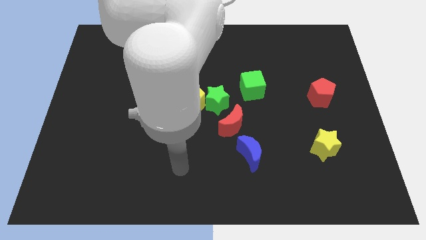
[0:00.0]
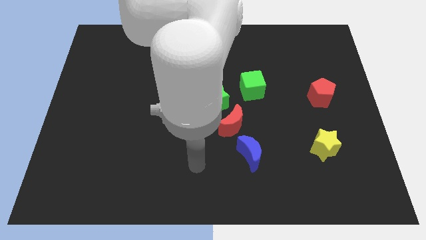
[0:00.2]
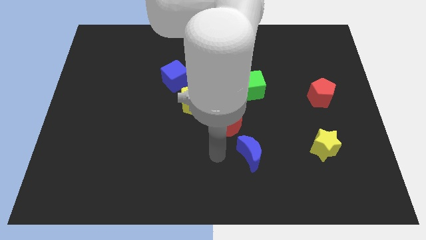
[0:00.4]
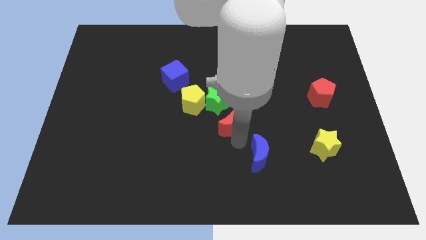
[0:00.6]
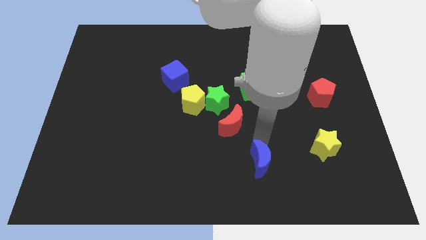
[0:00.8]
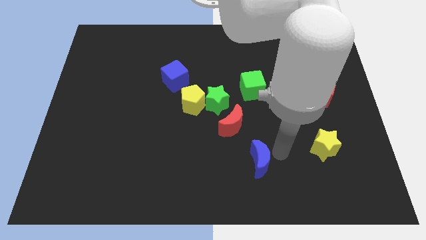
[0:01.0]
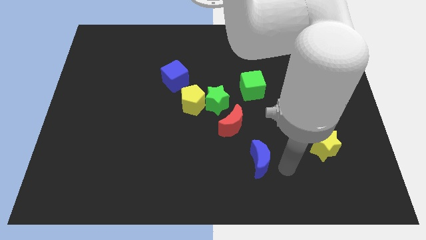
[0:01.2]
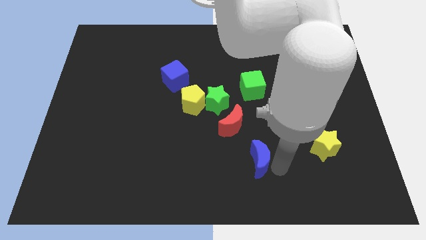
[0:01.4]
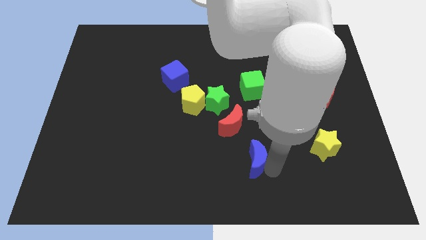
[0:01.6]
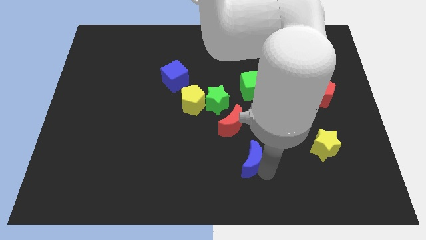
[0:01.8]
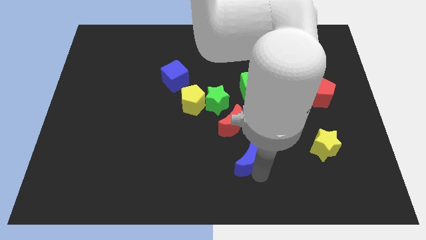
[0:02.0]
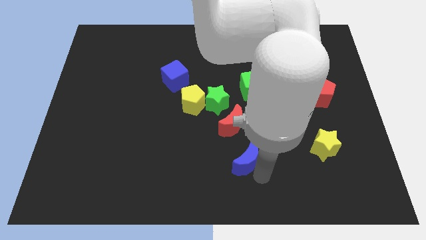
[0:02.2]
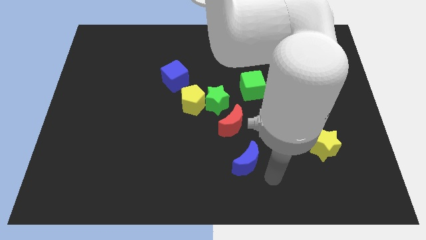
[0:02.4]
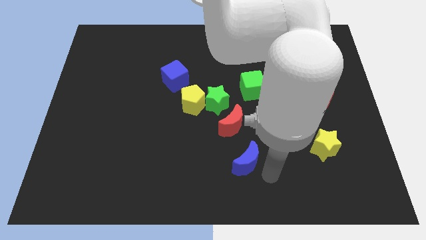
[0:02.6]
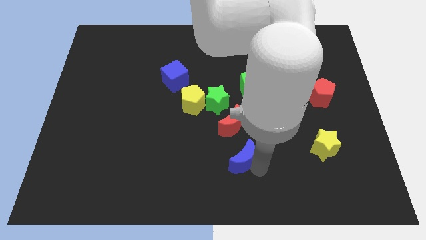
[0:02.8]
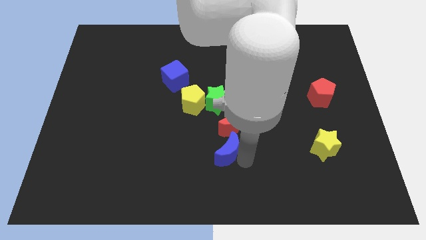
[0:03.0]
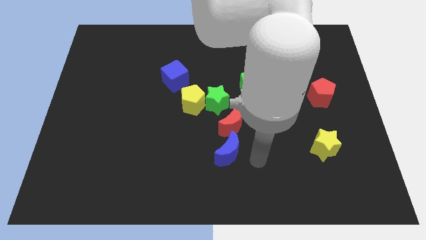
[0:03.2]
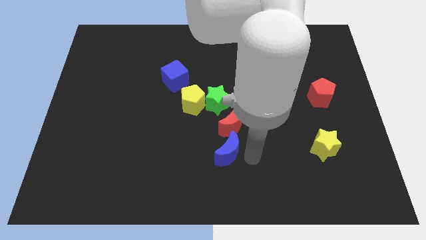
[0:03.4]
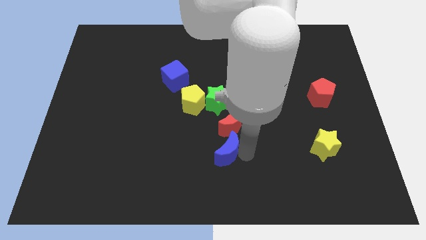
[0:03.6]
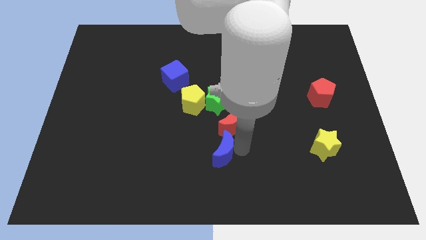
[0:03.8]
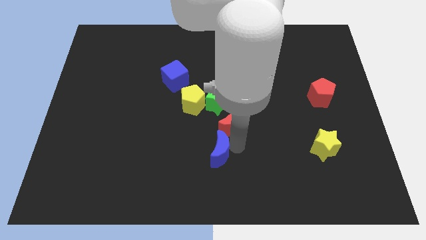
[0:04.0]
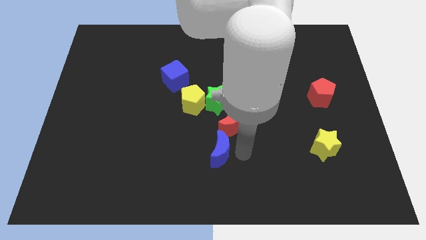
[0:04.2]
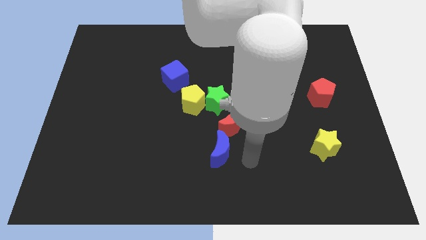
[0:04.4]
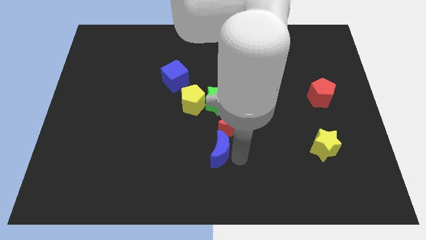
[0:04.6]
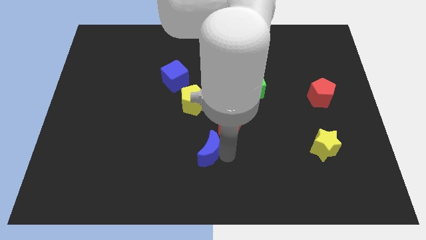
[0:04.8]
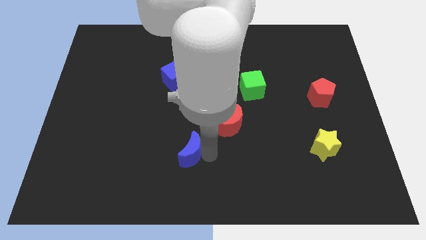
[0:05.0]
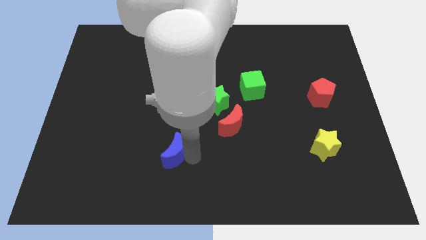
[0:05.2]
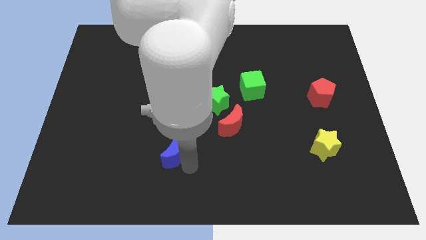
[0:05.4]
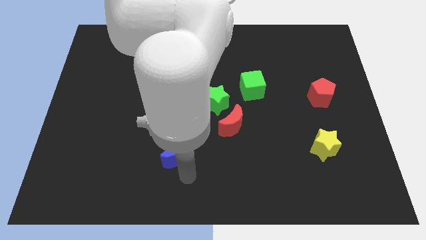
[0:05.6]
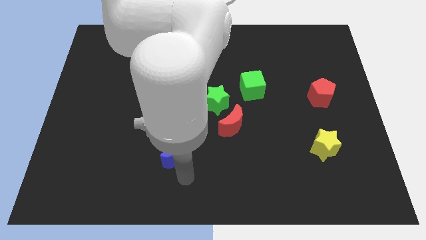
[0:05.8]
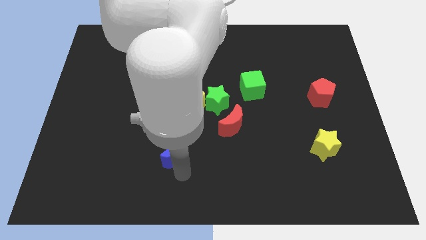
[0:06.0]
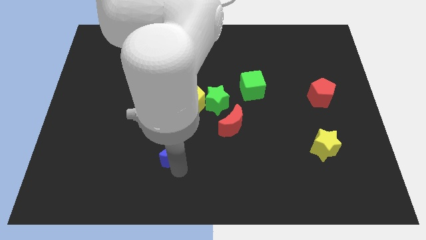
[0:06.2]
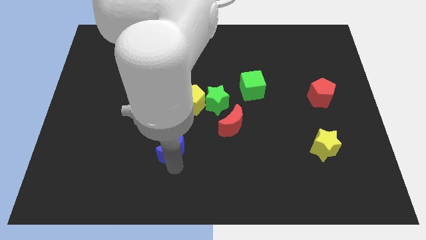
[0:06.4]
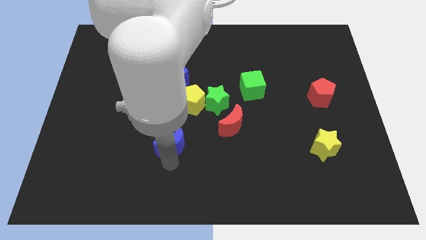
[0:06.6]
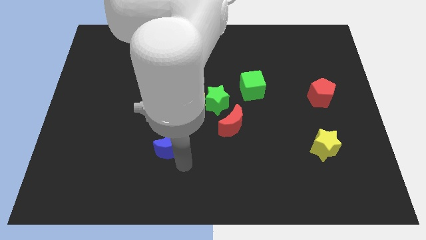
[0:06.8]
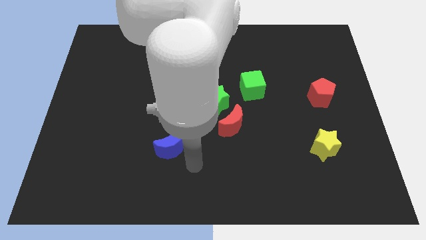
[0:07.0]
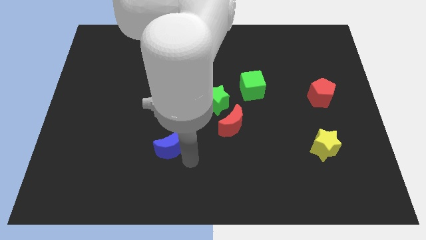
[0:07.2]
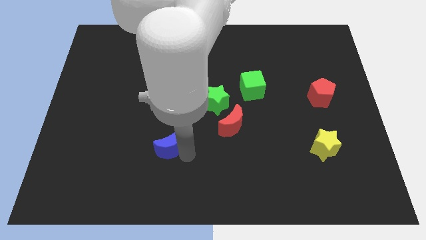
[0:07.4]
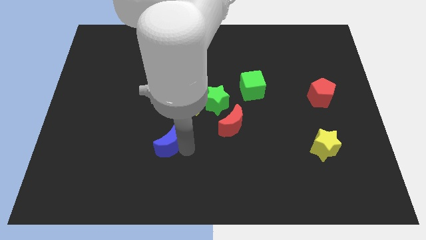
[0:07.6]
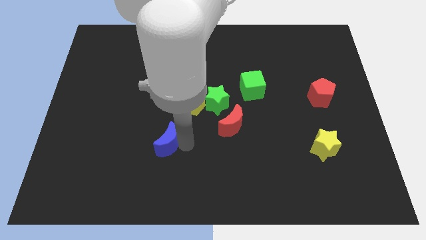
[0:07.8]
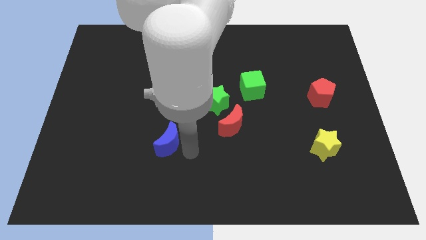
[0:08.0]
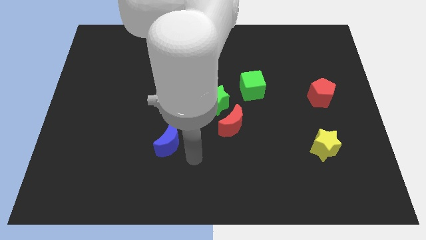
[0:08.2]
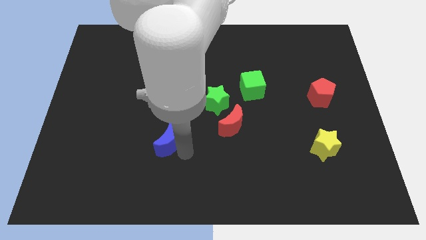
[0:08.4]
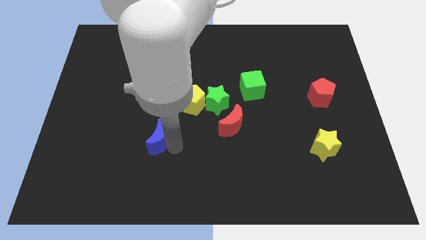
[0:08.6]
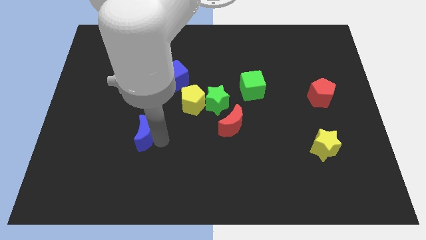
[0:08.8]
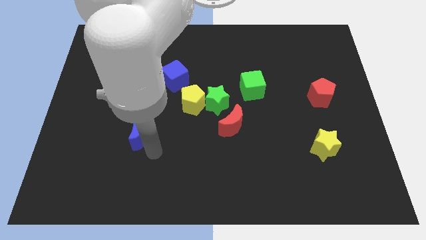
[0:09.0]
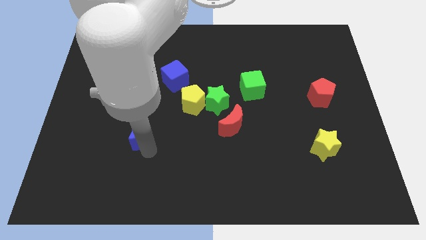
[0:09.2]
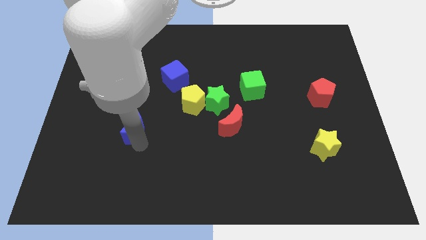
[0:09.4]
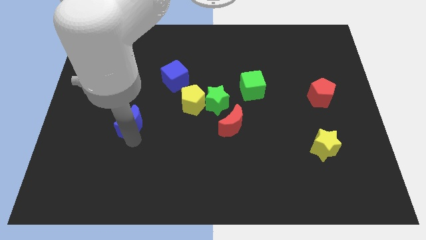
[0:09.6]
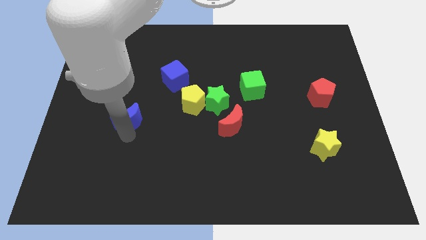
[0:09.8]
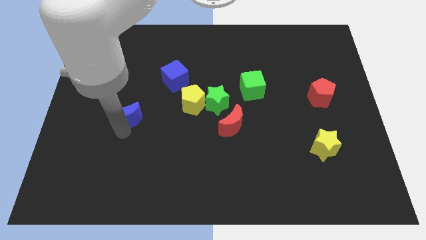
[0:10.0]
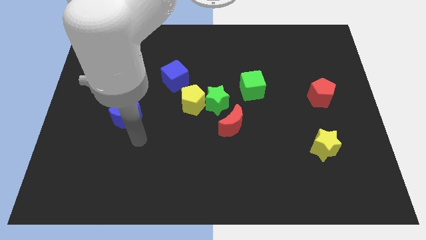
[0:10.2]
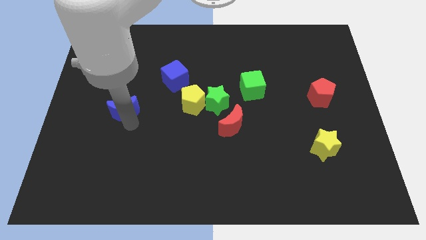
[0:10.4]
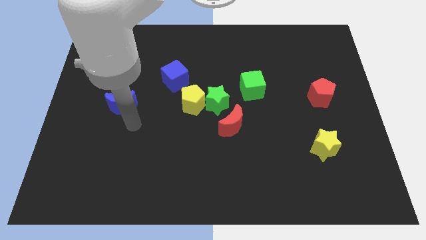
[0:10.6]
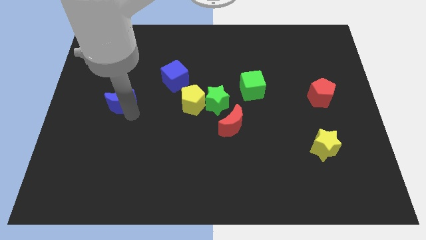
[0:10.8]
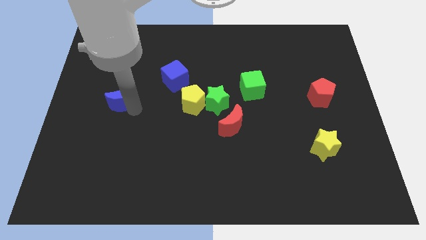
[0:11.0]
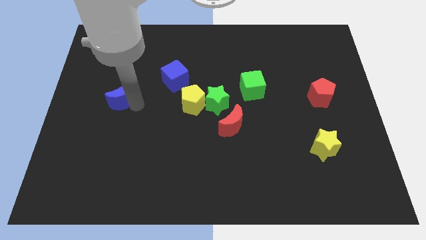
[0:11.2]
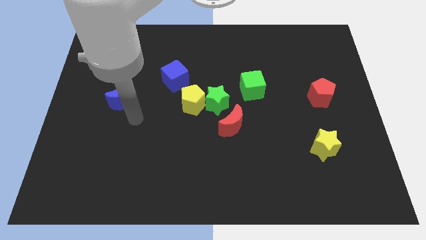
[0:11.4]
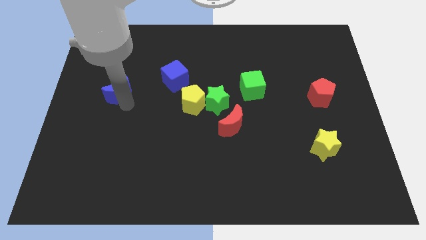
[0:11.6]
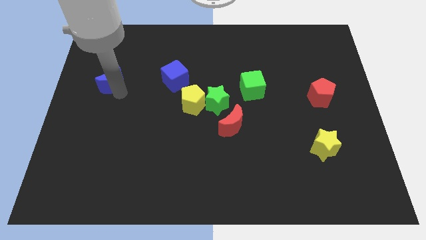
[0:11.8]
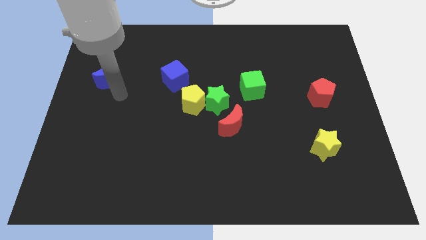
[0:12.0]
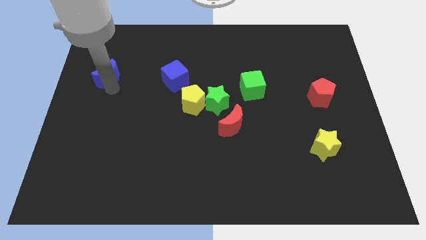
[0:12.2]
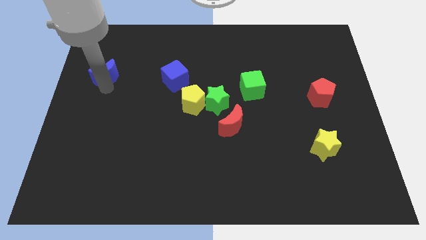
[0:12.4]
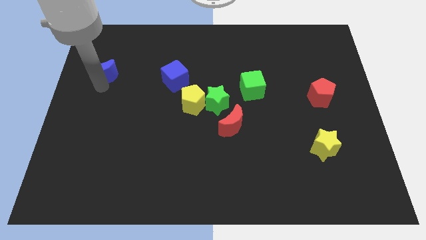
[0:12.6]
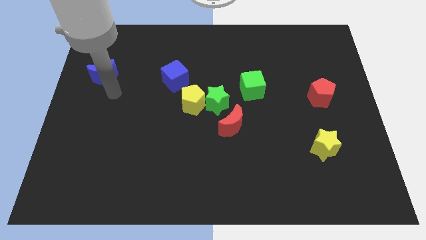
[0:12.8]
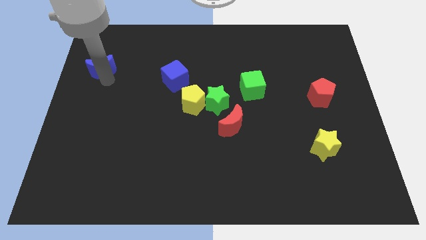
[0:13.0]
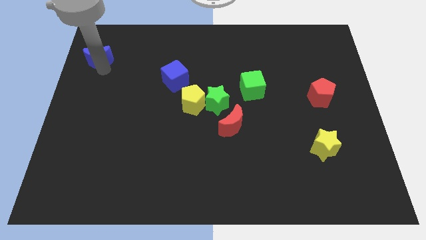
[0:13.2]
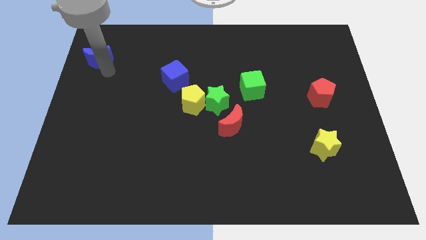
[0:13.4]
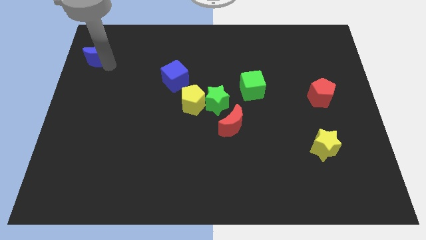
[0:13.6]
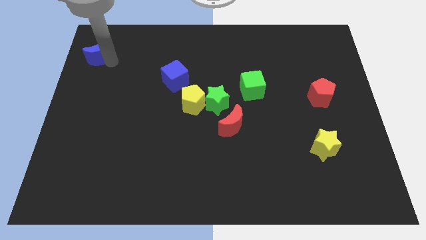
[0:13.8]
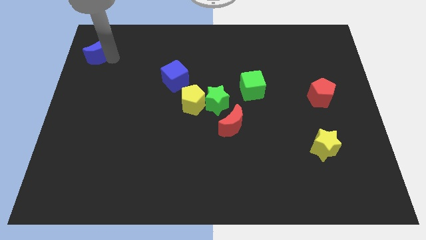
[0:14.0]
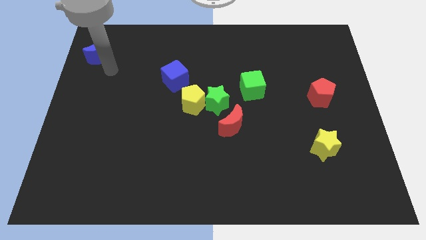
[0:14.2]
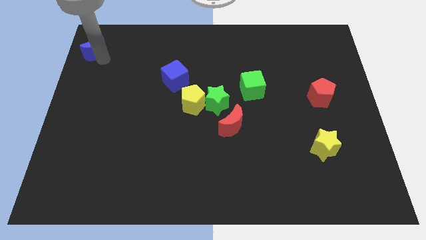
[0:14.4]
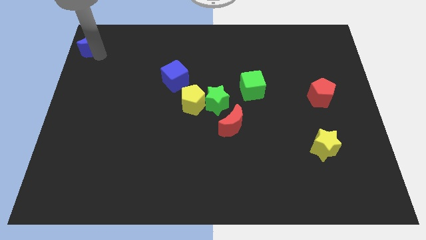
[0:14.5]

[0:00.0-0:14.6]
move the blue moon to the top left
